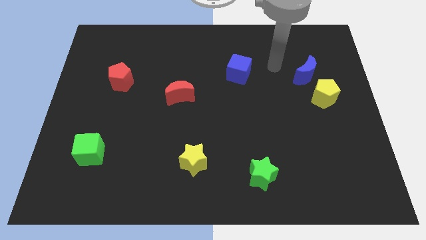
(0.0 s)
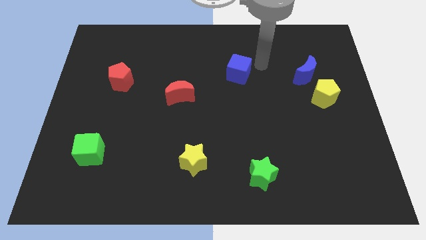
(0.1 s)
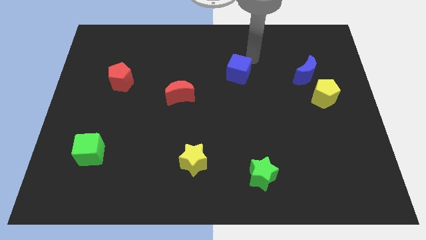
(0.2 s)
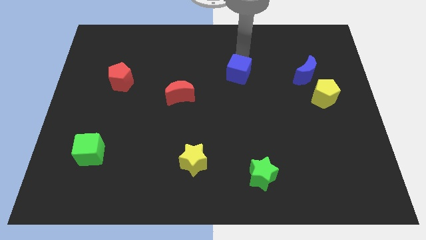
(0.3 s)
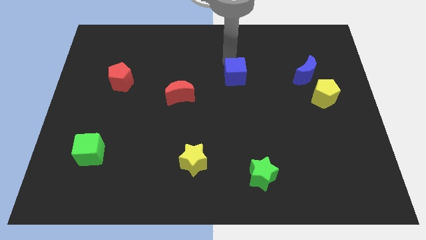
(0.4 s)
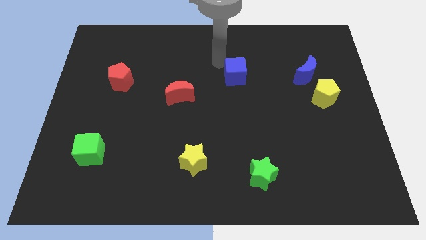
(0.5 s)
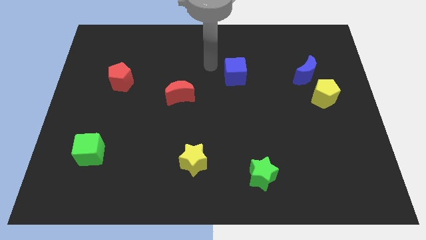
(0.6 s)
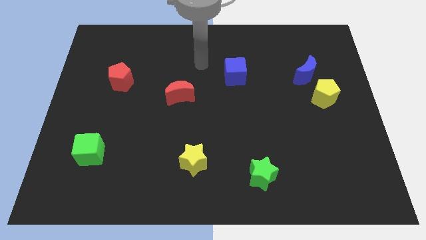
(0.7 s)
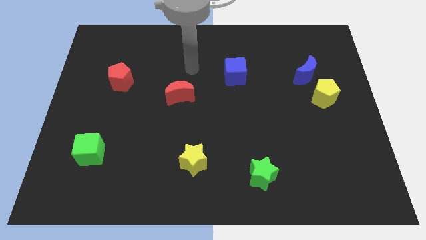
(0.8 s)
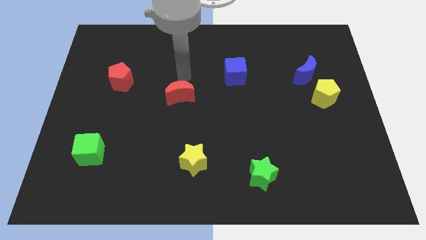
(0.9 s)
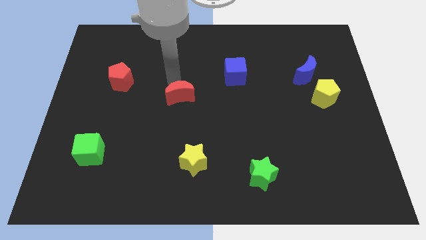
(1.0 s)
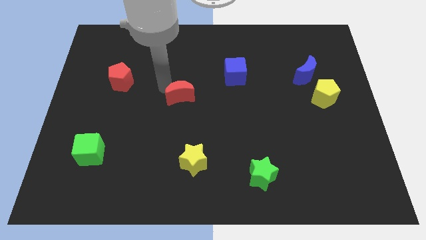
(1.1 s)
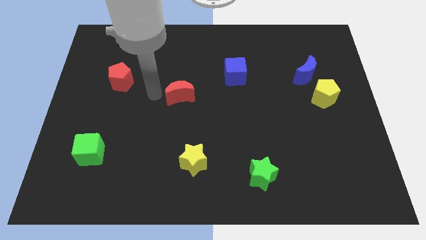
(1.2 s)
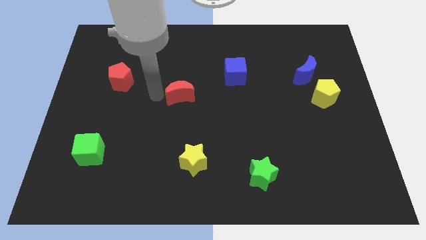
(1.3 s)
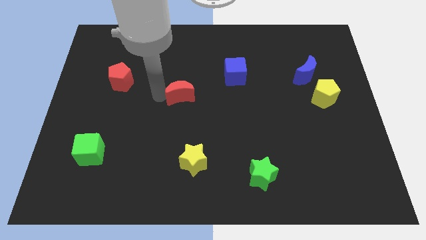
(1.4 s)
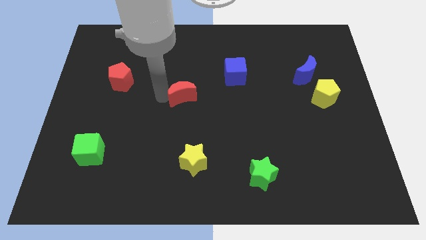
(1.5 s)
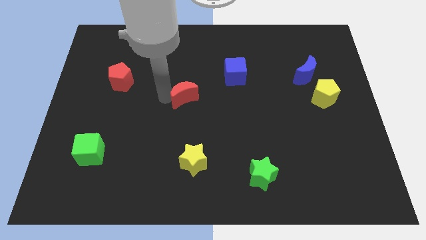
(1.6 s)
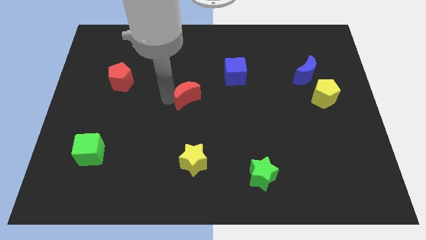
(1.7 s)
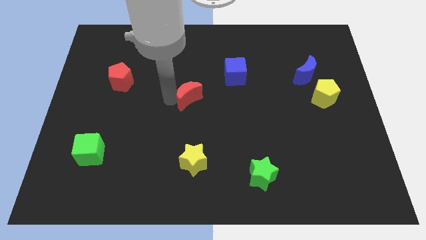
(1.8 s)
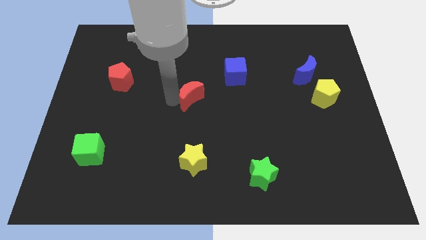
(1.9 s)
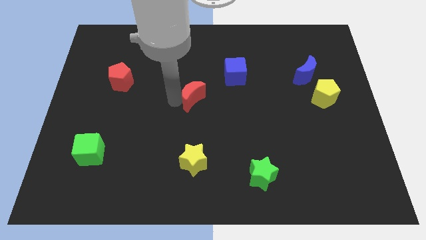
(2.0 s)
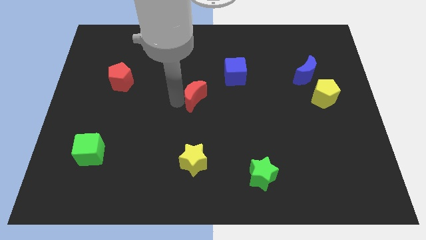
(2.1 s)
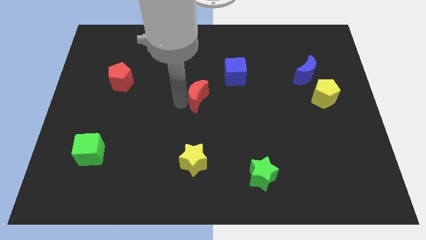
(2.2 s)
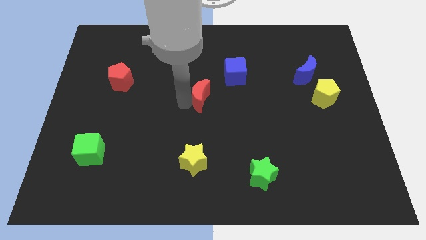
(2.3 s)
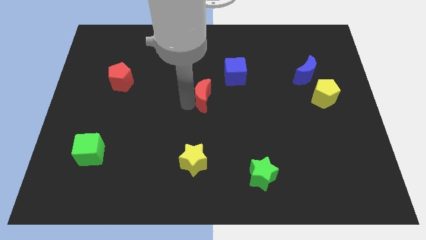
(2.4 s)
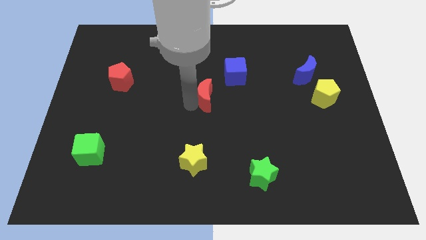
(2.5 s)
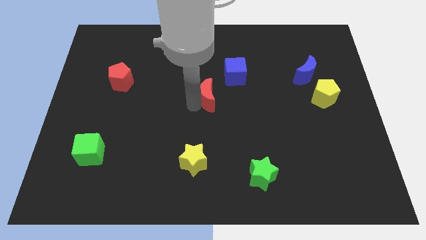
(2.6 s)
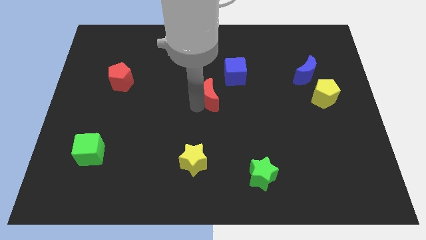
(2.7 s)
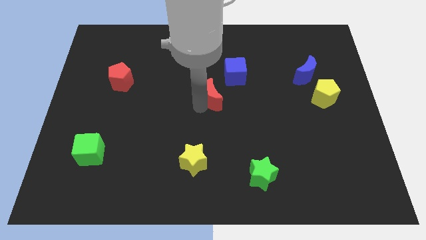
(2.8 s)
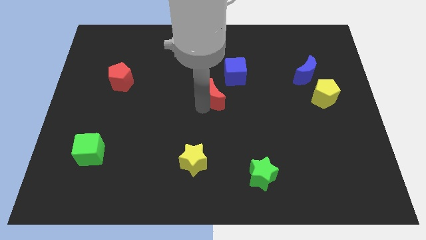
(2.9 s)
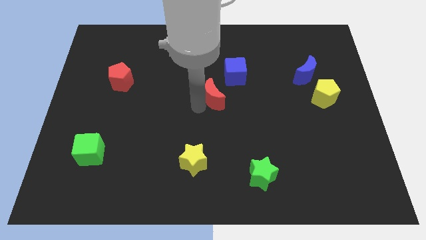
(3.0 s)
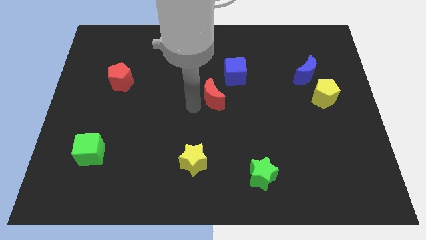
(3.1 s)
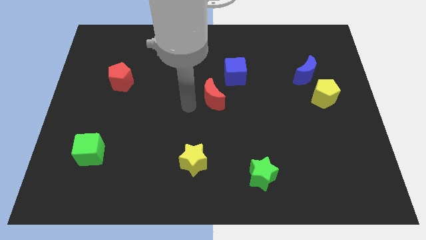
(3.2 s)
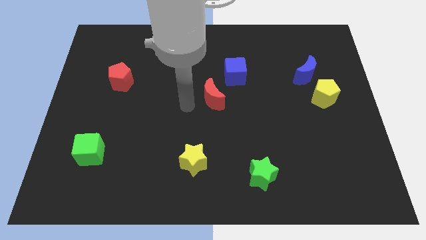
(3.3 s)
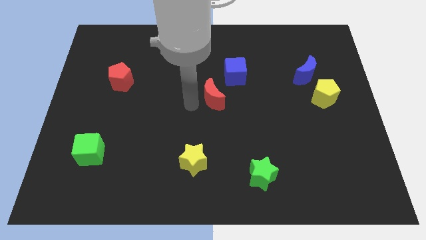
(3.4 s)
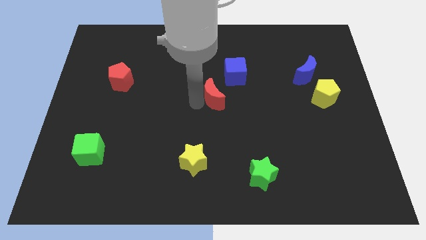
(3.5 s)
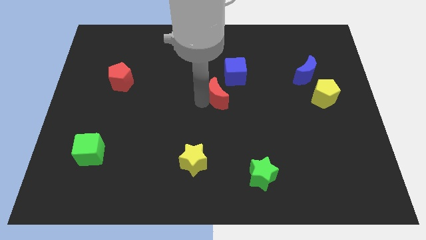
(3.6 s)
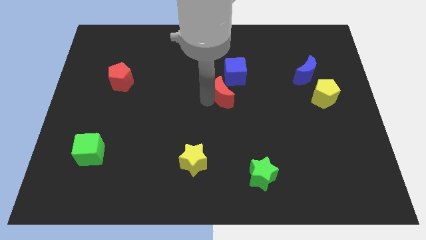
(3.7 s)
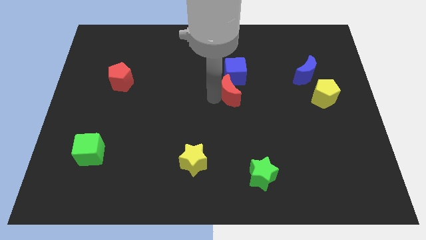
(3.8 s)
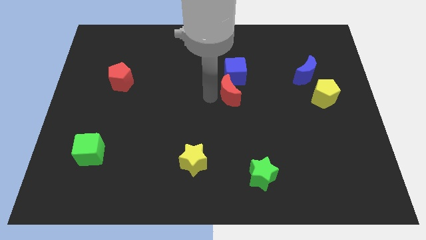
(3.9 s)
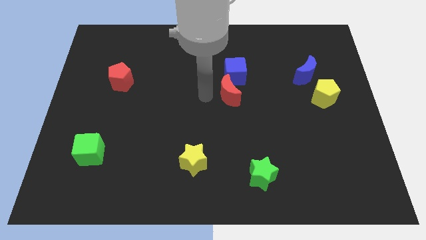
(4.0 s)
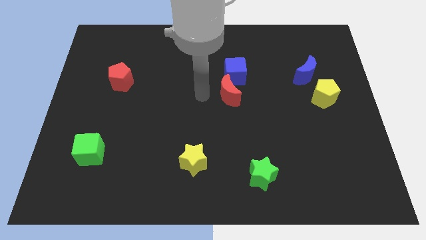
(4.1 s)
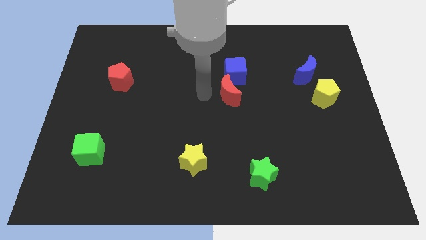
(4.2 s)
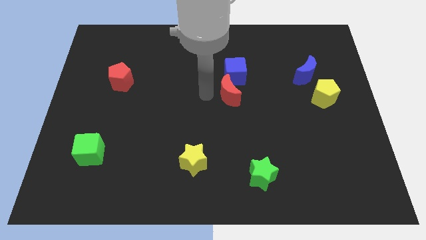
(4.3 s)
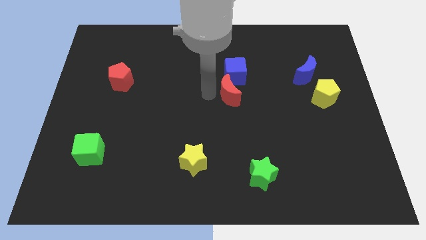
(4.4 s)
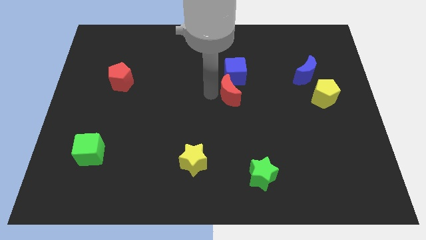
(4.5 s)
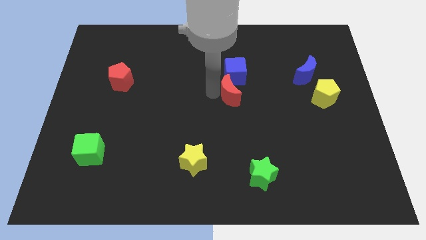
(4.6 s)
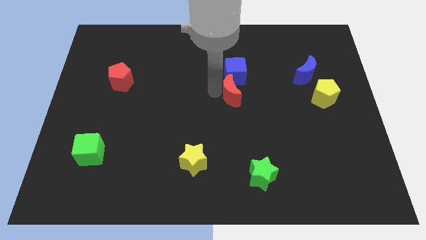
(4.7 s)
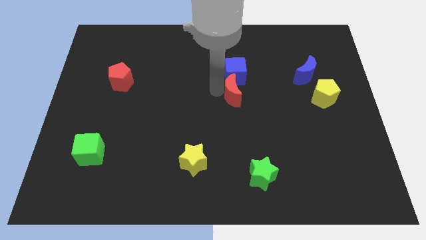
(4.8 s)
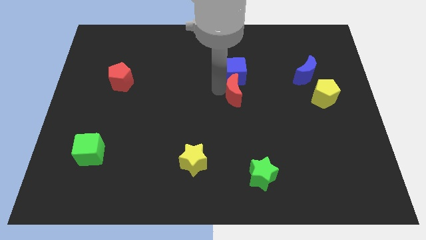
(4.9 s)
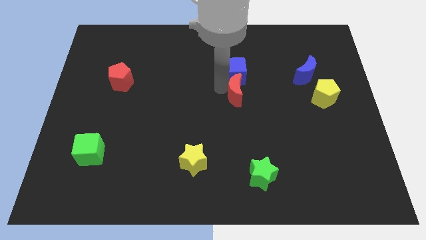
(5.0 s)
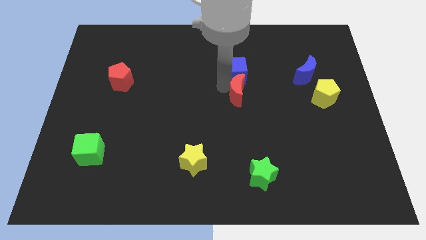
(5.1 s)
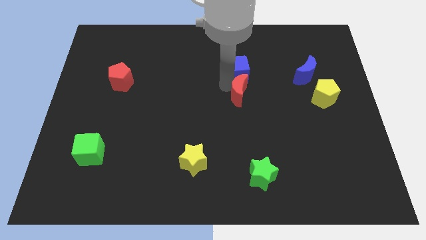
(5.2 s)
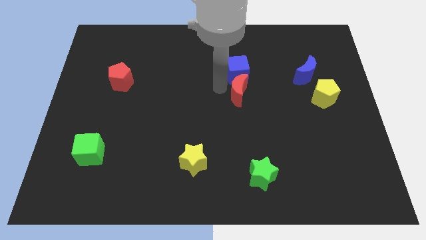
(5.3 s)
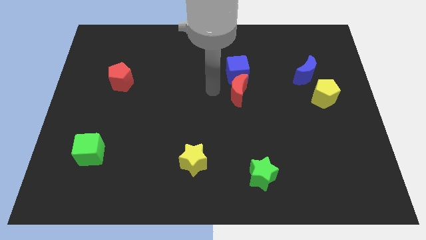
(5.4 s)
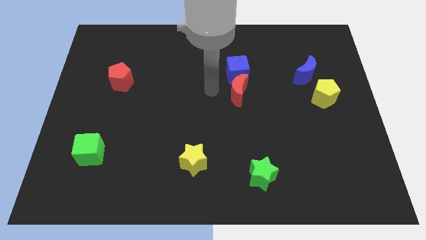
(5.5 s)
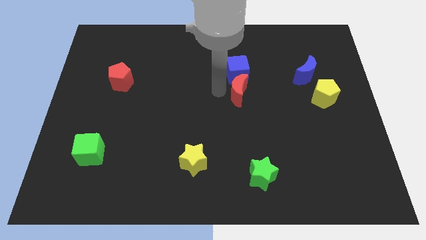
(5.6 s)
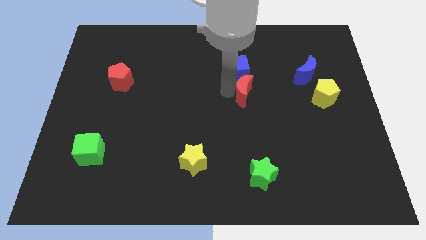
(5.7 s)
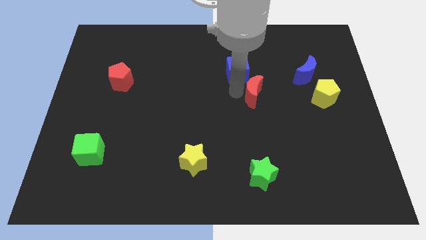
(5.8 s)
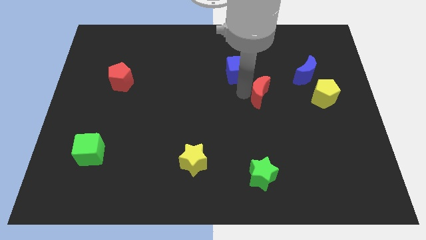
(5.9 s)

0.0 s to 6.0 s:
move the red moon left of the yellow pentagon

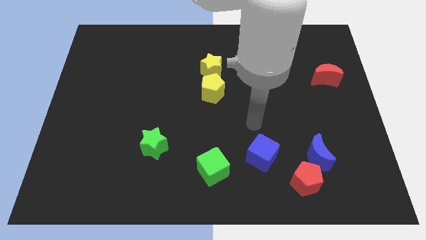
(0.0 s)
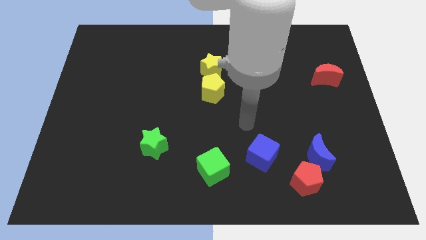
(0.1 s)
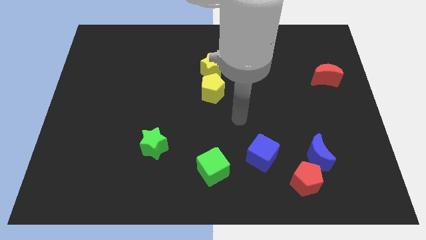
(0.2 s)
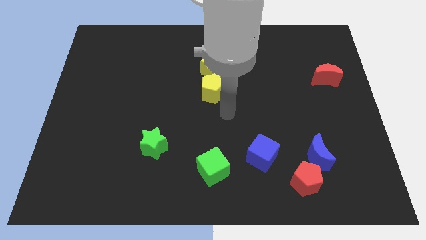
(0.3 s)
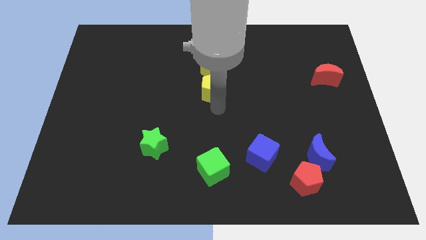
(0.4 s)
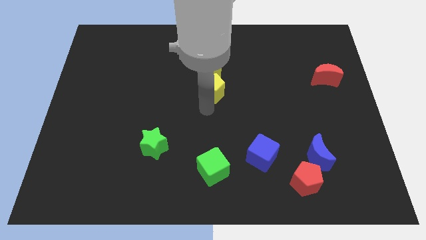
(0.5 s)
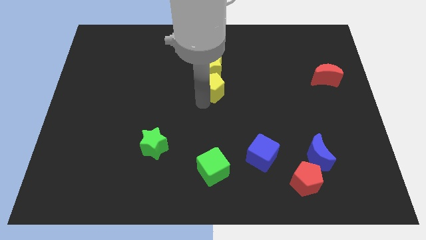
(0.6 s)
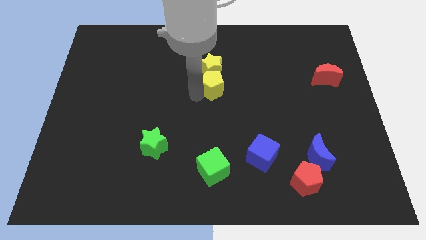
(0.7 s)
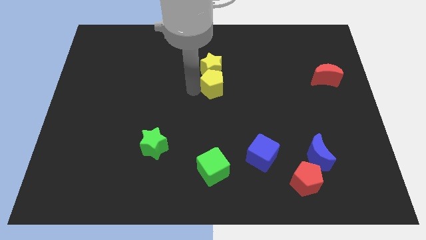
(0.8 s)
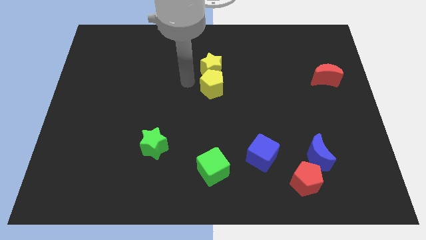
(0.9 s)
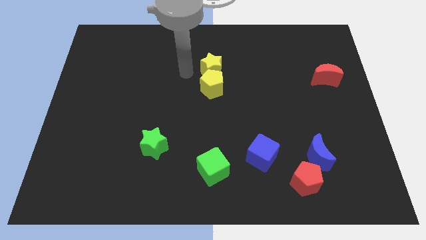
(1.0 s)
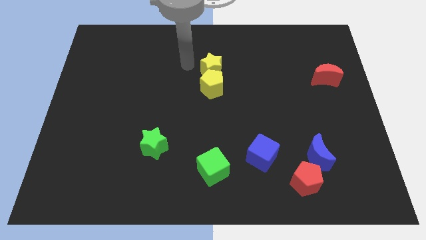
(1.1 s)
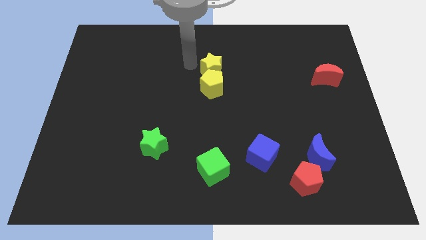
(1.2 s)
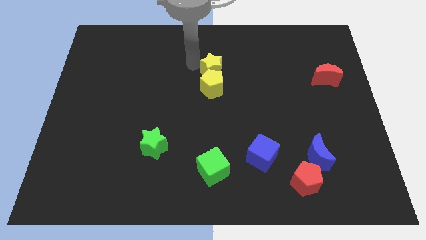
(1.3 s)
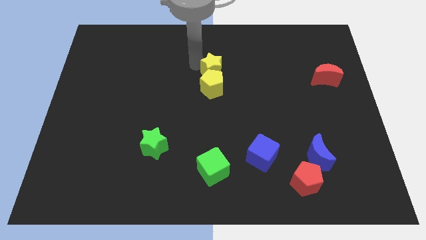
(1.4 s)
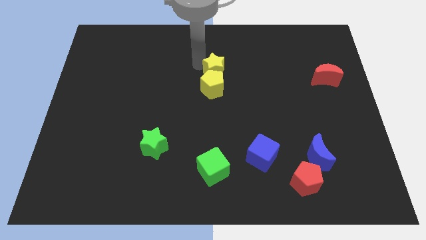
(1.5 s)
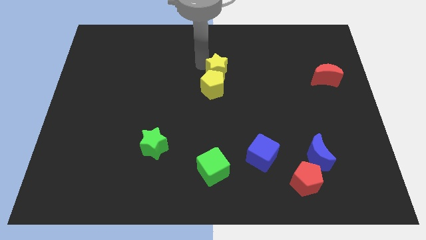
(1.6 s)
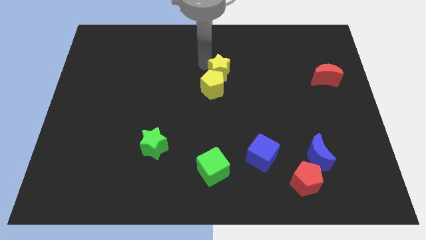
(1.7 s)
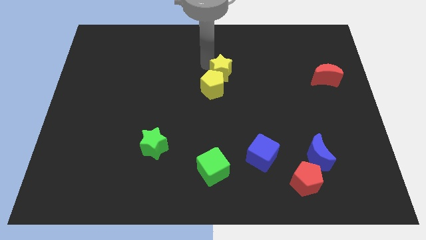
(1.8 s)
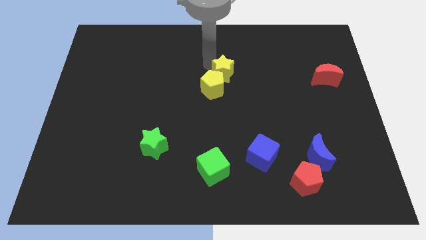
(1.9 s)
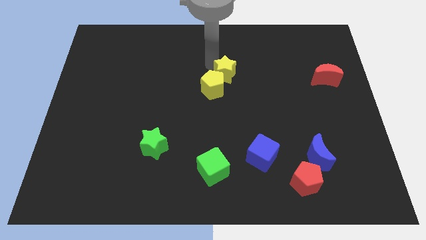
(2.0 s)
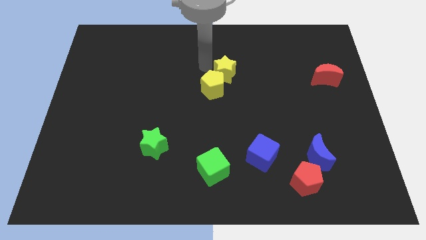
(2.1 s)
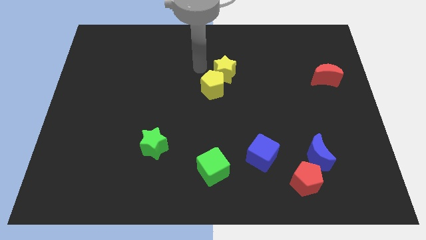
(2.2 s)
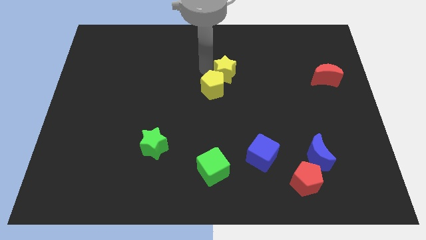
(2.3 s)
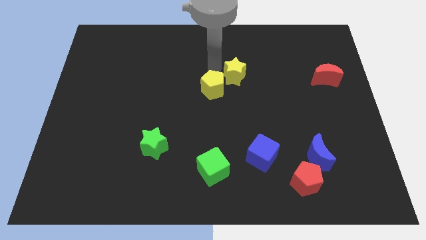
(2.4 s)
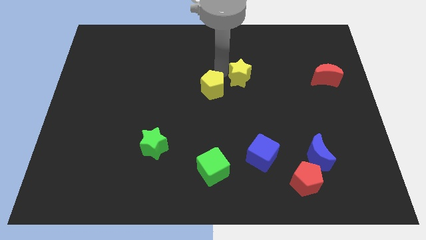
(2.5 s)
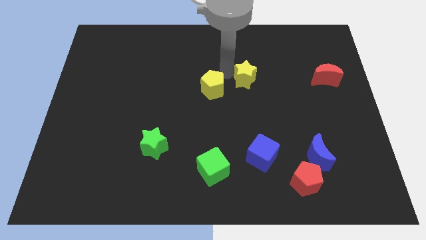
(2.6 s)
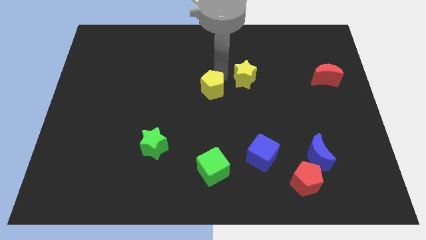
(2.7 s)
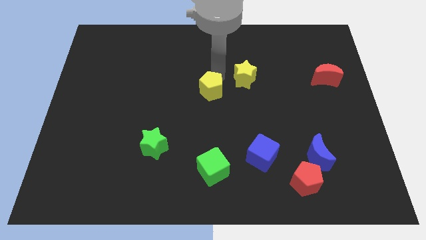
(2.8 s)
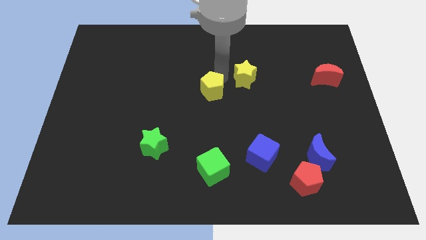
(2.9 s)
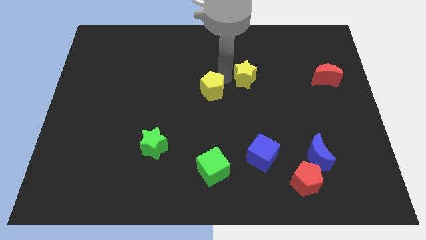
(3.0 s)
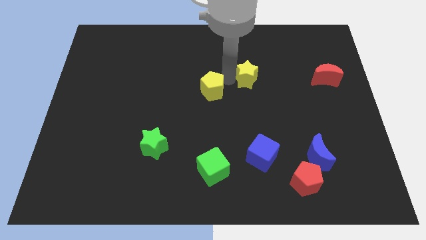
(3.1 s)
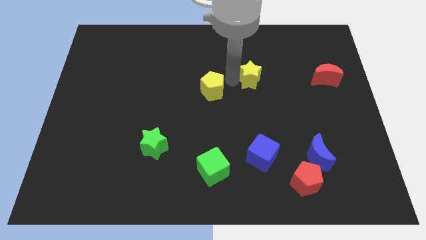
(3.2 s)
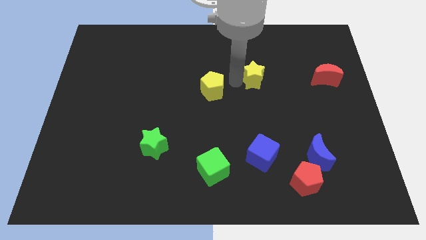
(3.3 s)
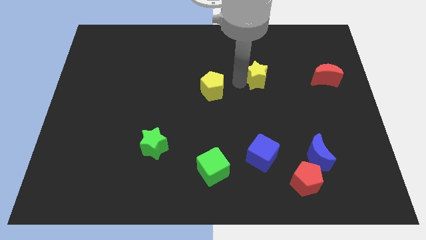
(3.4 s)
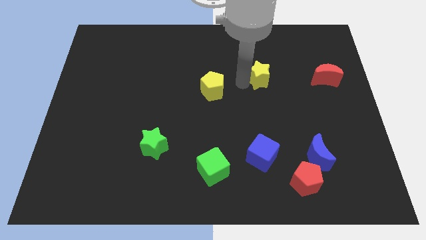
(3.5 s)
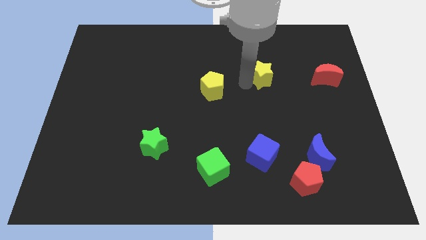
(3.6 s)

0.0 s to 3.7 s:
push the yellow star to the left side of the red moon
